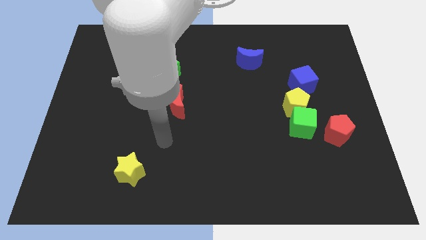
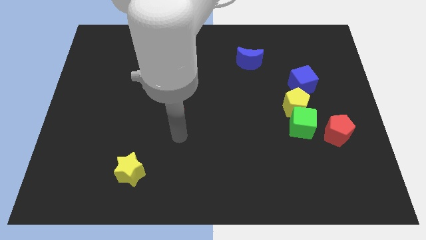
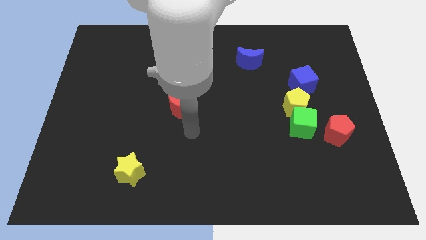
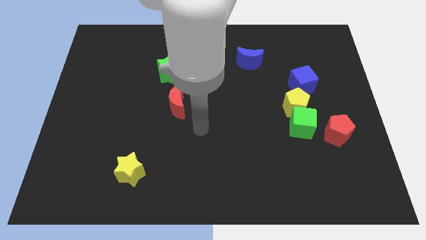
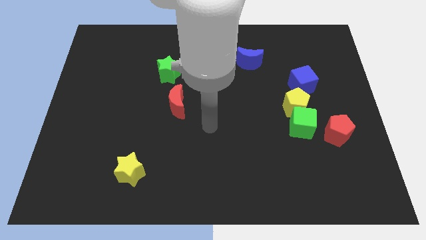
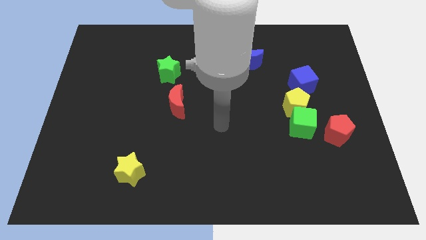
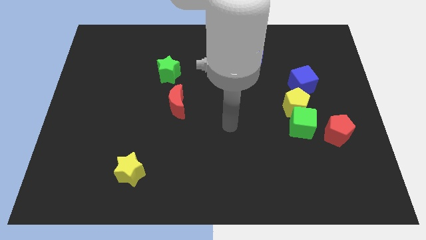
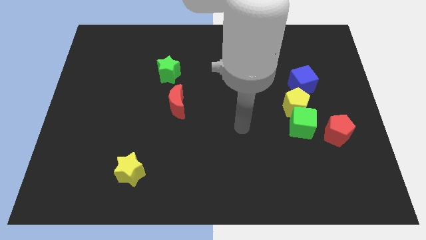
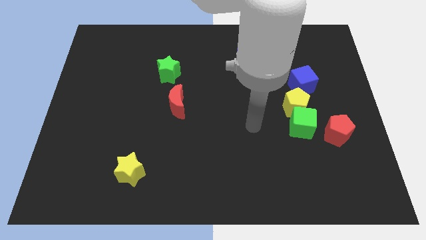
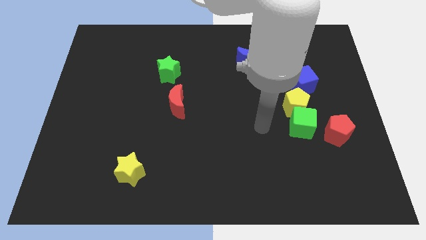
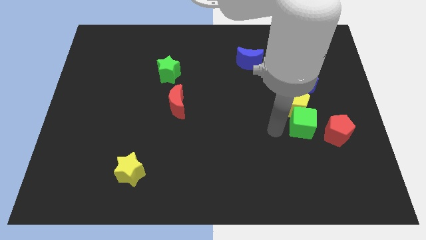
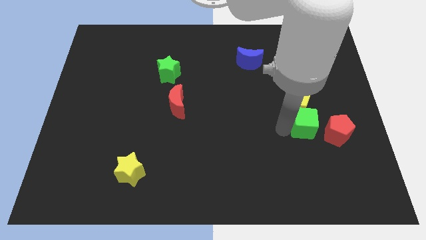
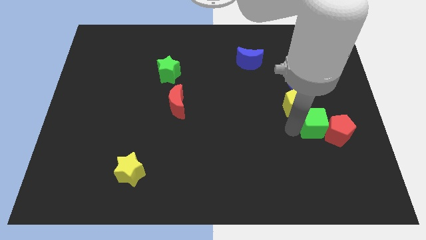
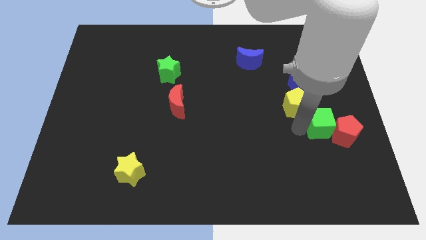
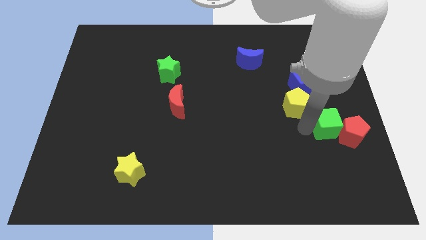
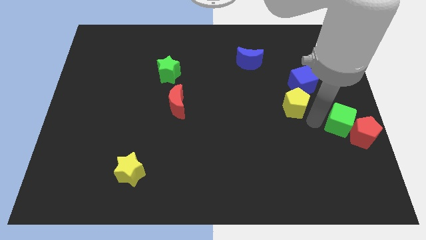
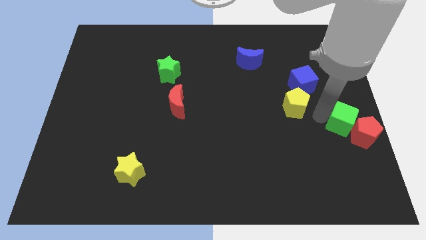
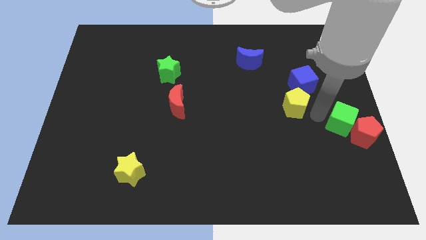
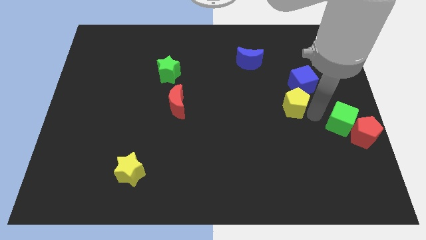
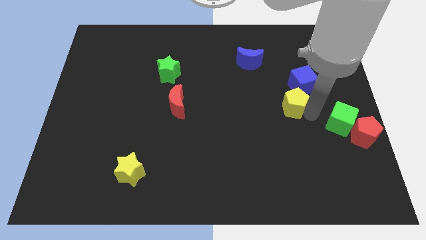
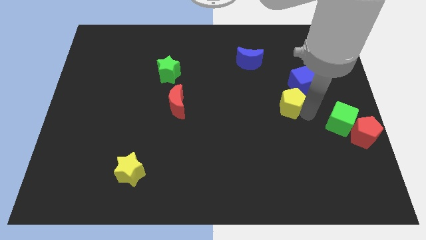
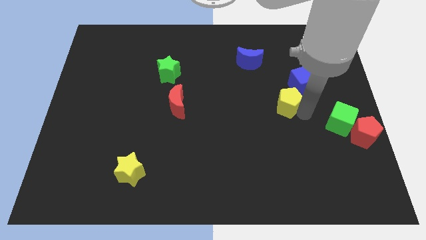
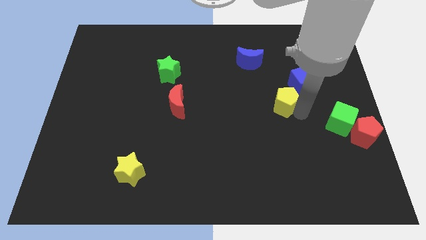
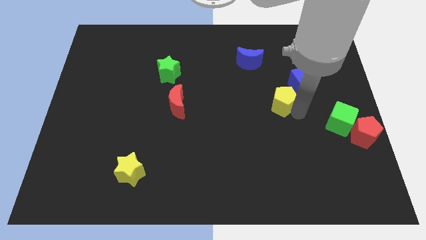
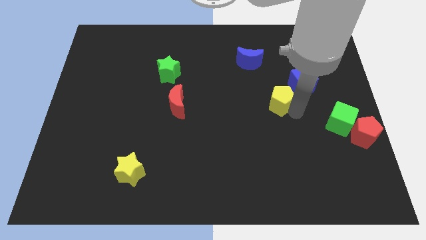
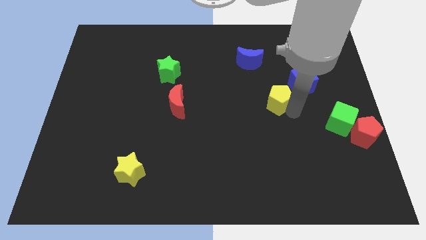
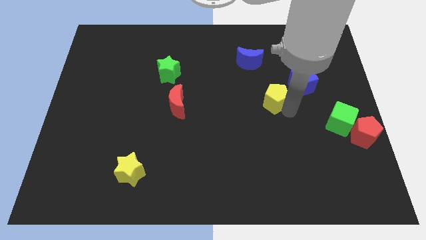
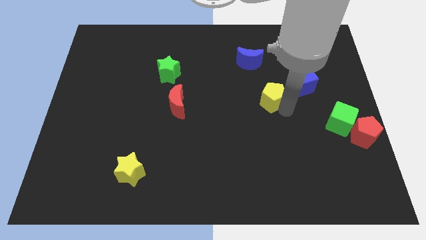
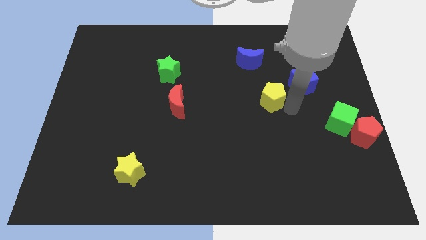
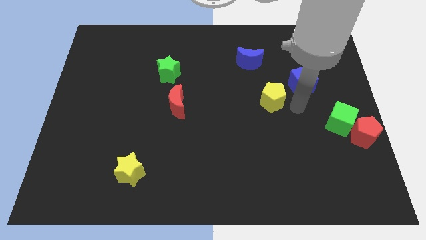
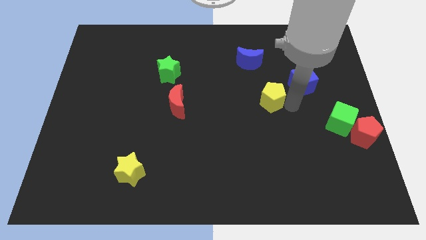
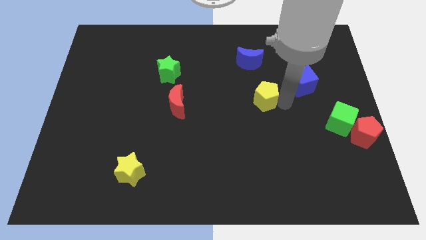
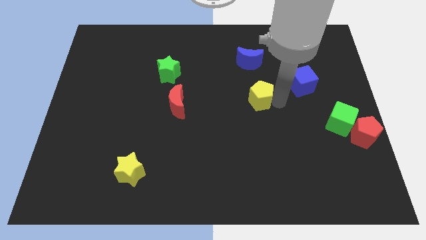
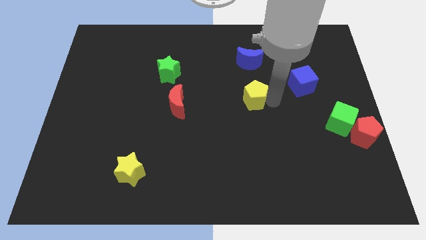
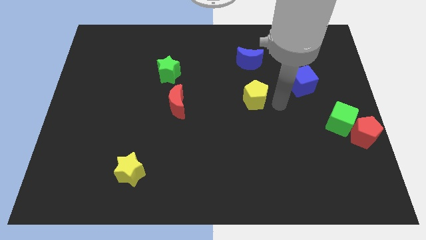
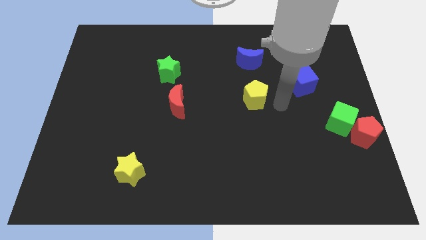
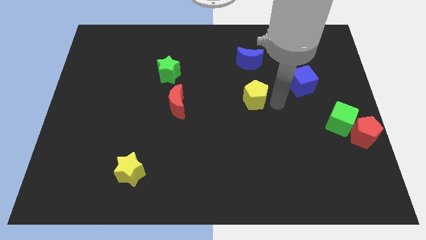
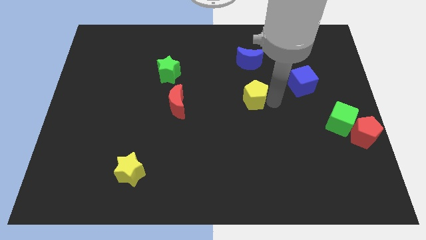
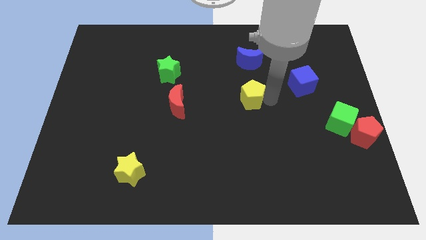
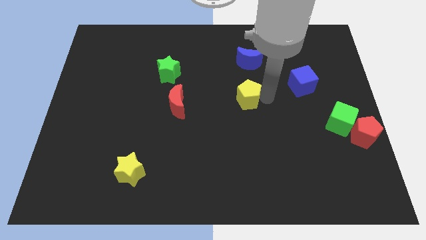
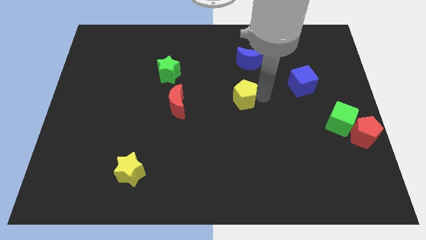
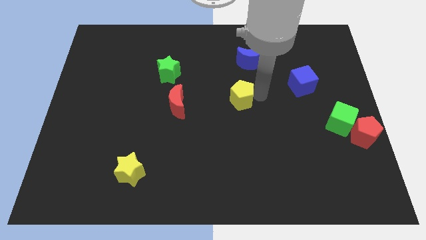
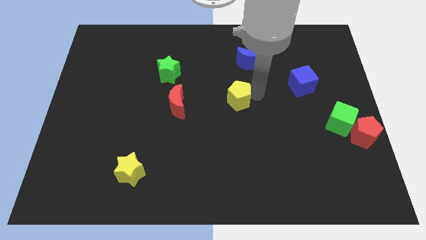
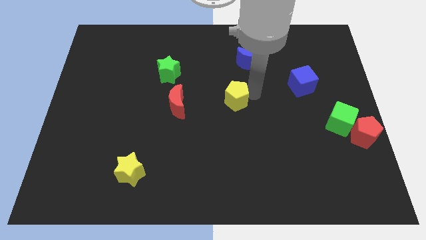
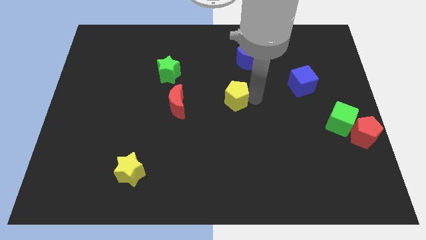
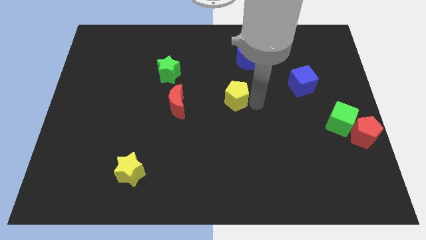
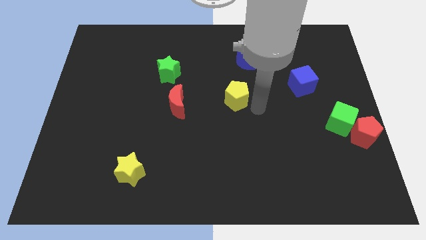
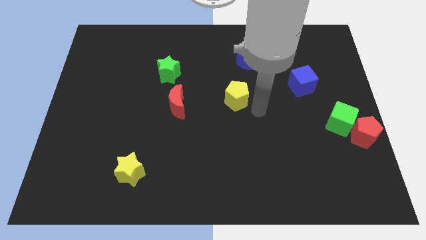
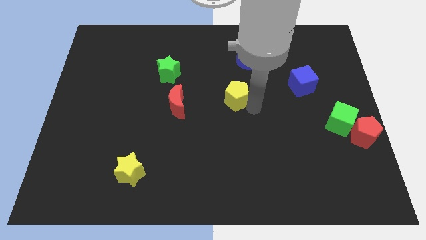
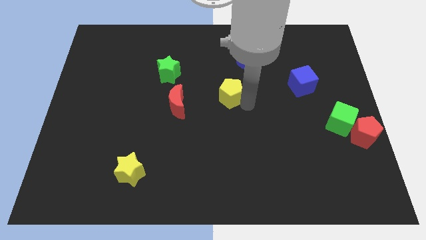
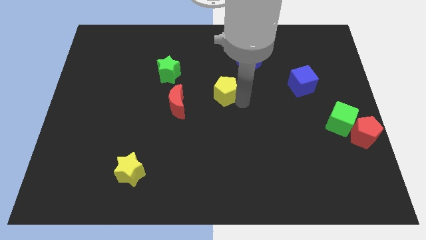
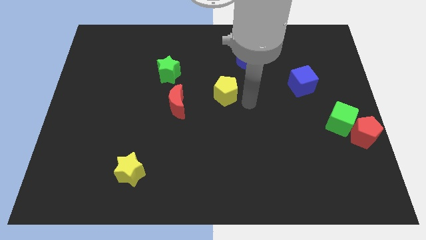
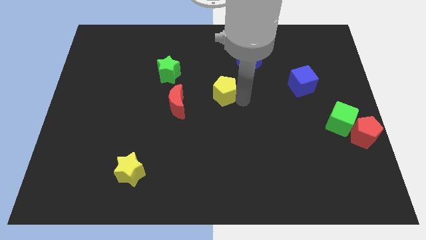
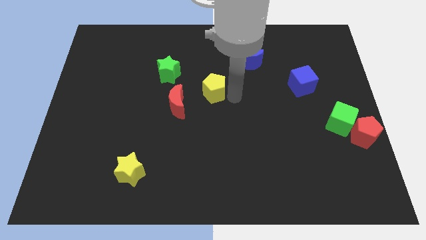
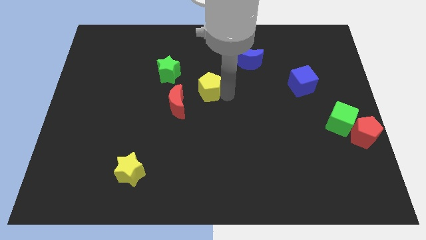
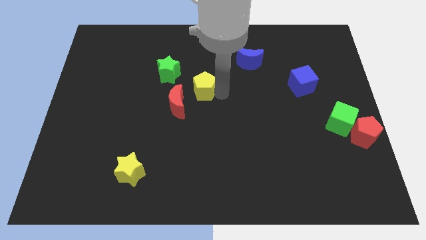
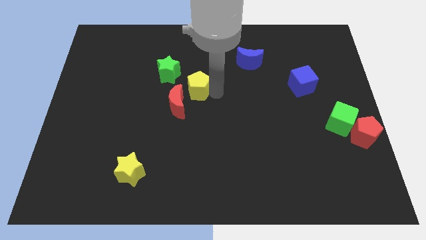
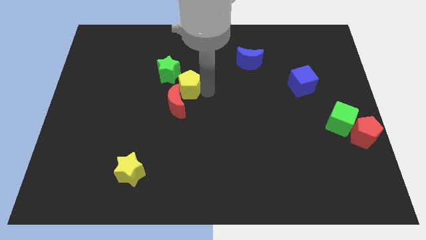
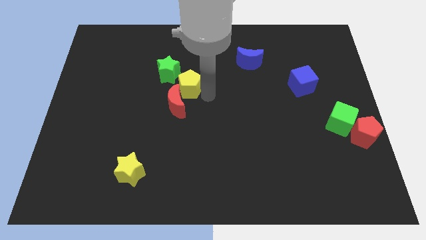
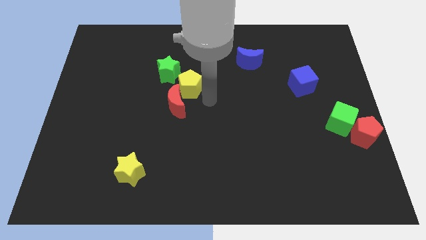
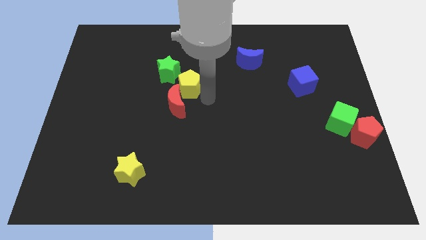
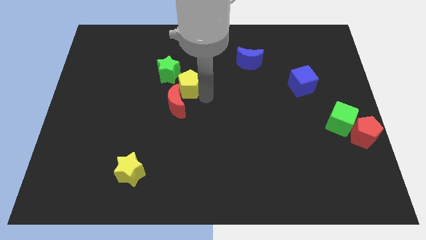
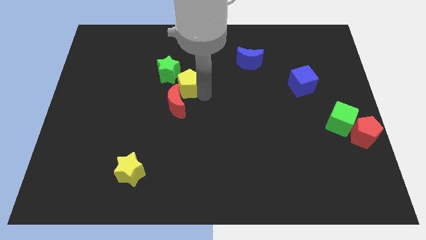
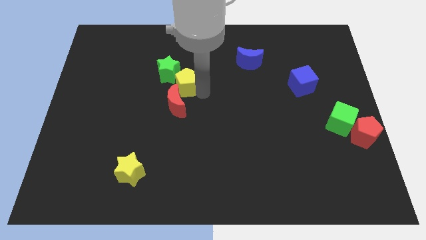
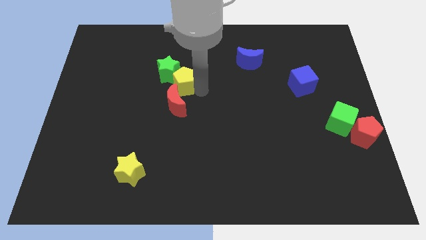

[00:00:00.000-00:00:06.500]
move the yellow pentagon next to the green star

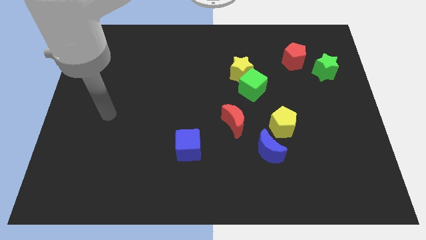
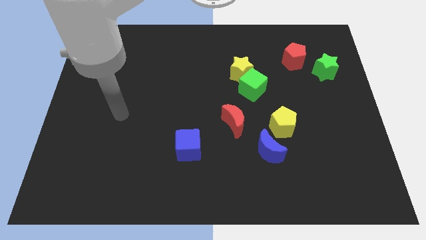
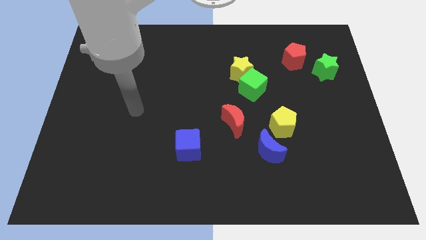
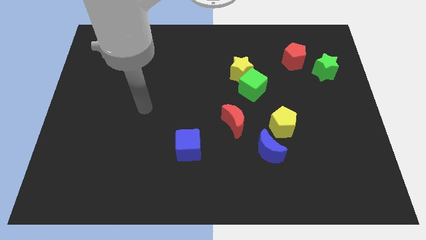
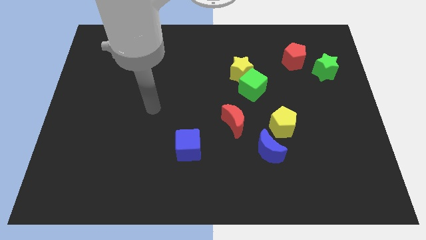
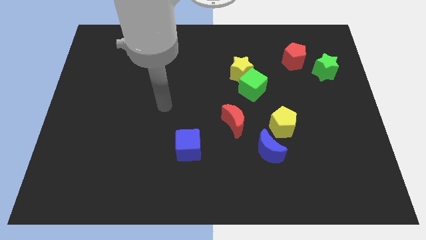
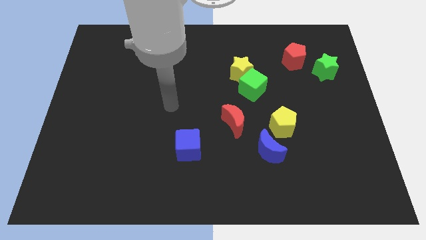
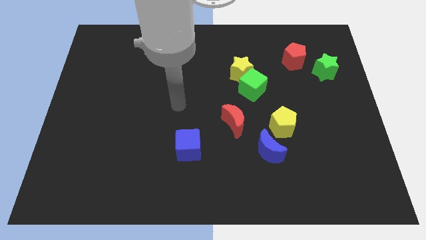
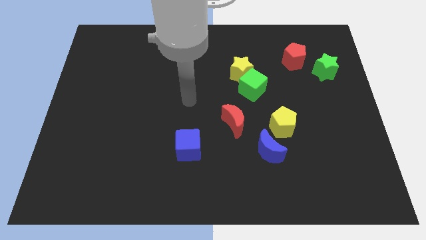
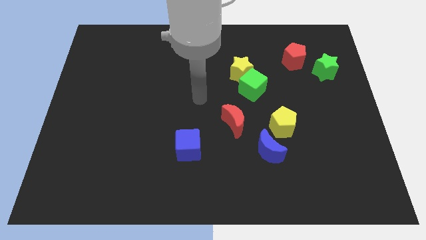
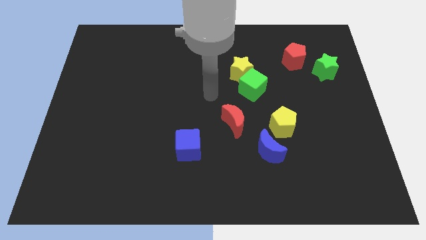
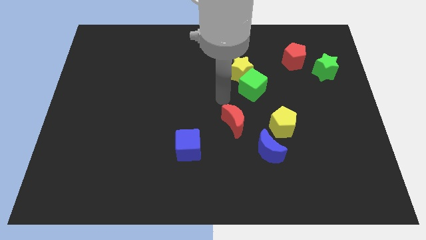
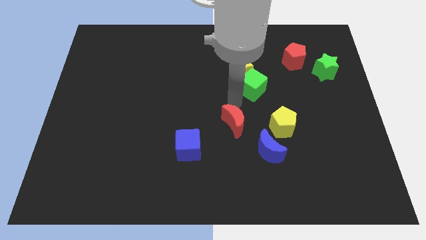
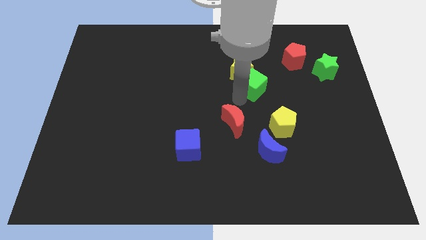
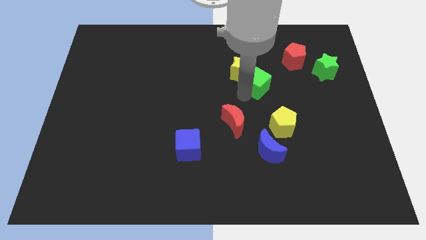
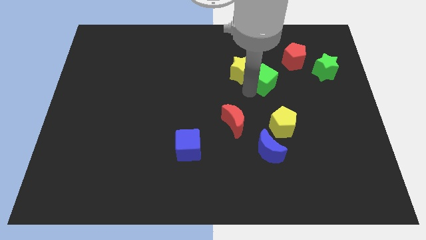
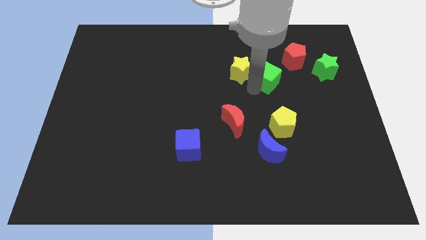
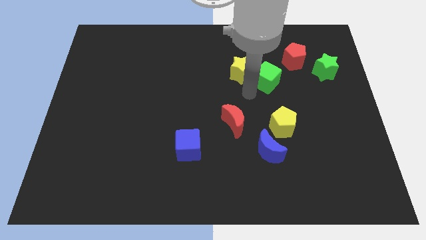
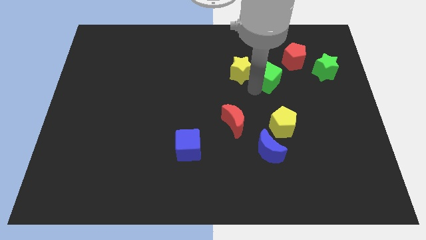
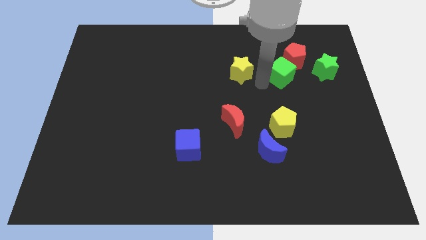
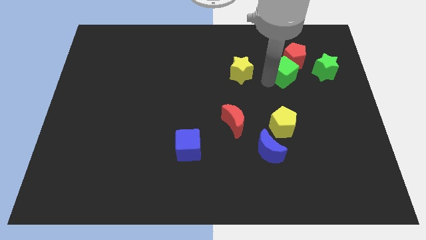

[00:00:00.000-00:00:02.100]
put the green cube to the red pentagon
